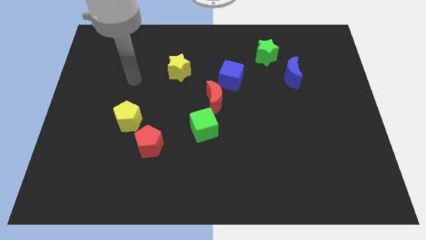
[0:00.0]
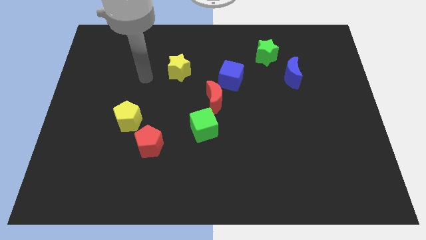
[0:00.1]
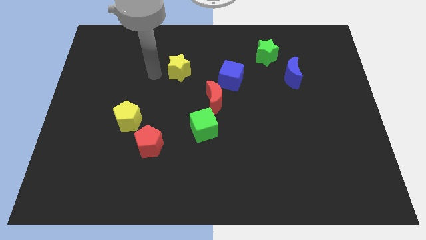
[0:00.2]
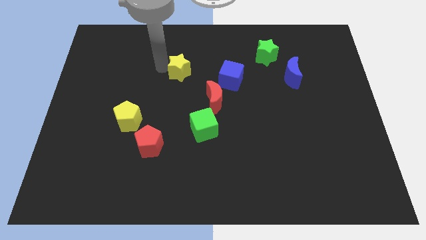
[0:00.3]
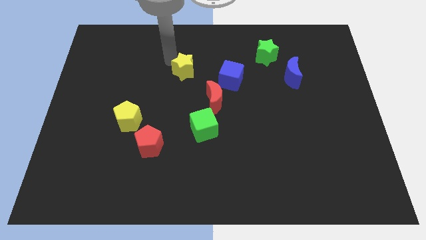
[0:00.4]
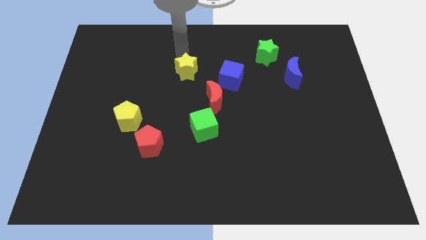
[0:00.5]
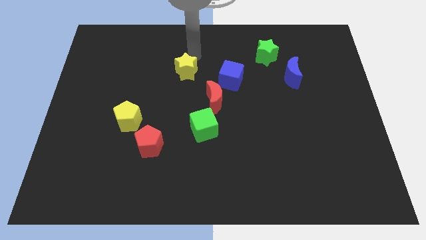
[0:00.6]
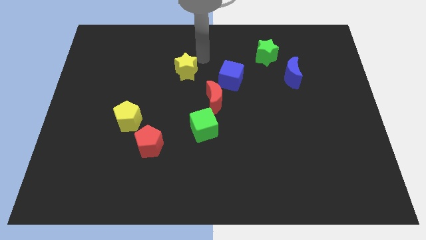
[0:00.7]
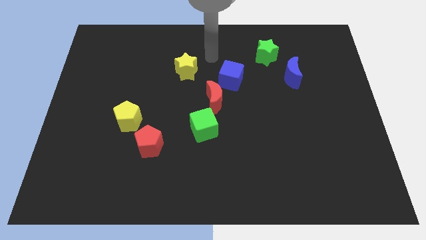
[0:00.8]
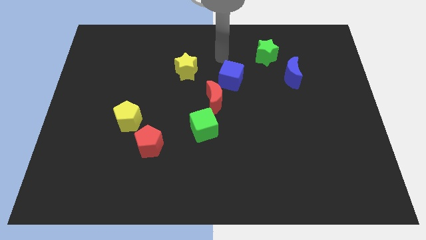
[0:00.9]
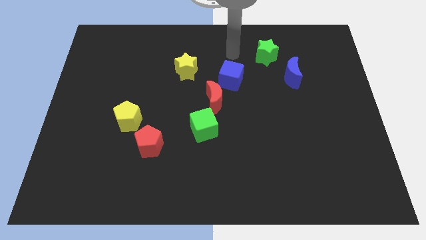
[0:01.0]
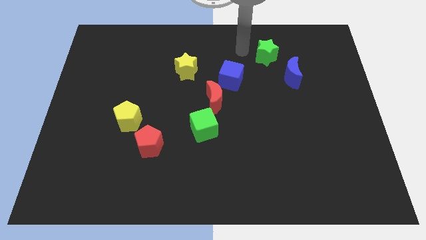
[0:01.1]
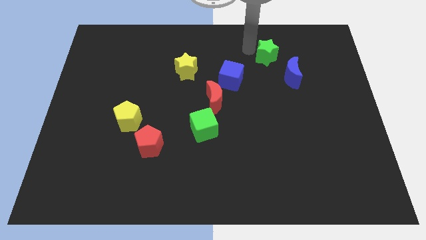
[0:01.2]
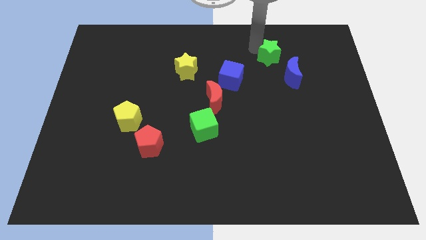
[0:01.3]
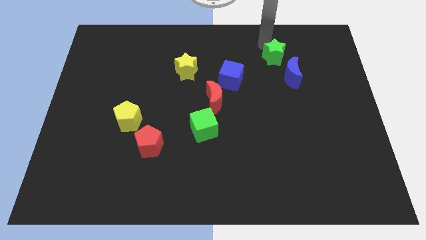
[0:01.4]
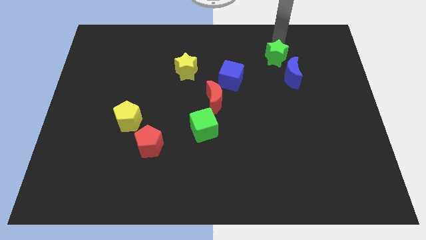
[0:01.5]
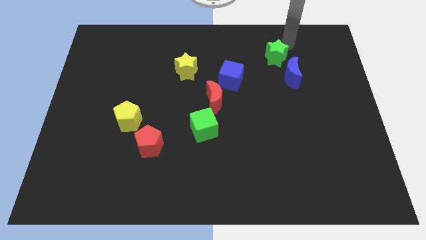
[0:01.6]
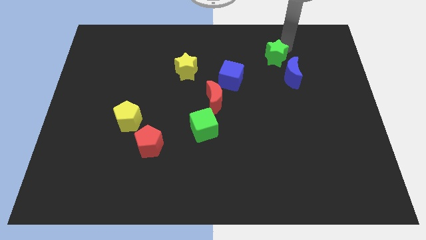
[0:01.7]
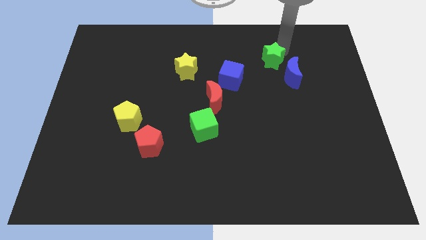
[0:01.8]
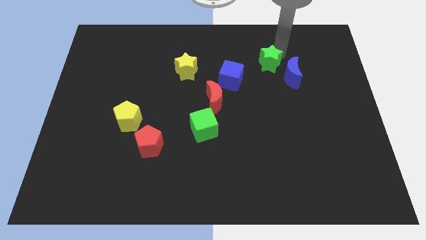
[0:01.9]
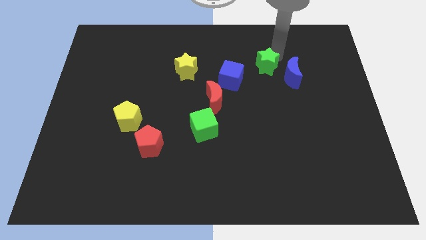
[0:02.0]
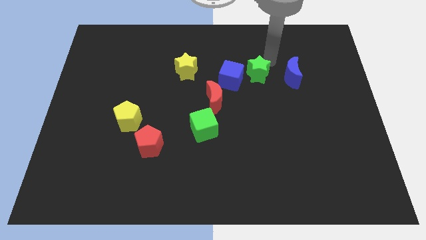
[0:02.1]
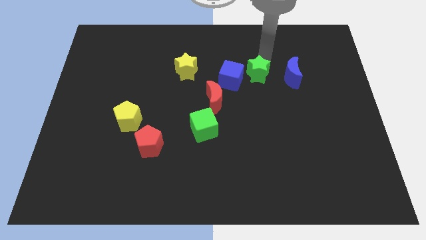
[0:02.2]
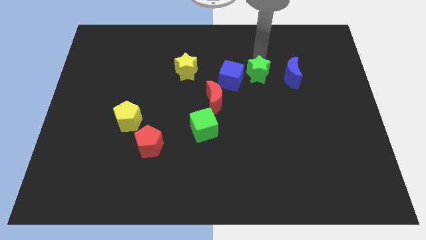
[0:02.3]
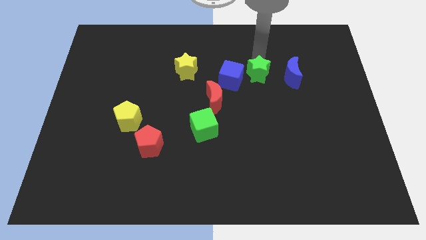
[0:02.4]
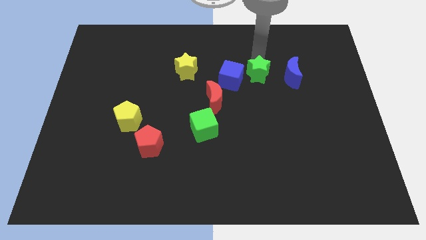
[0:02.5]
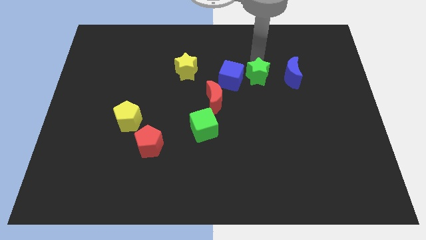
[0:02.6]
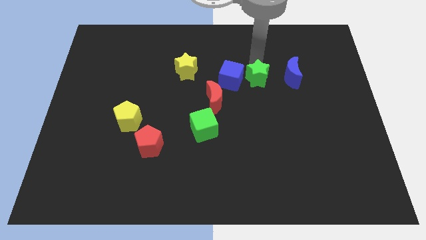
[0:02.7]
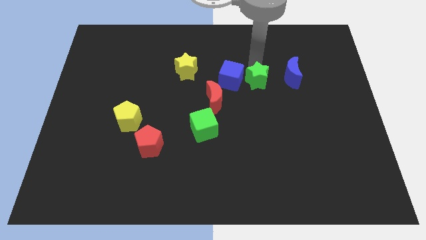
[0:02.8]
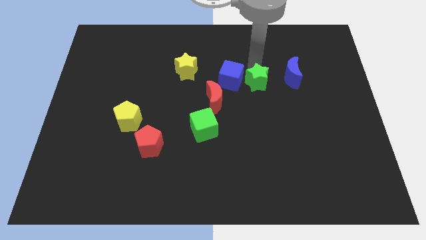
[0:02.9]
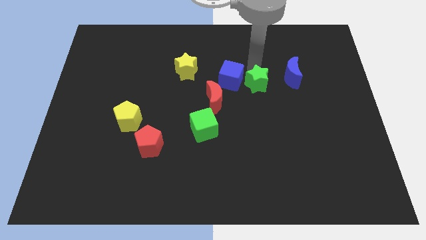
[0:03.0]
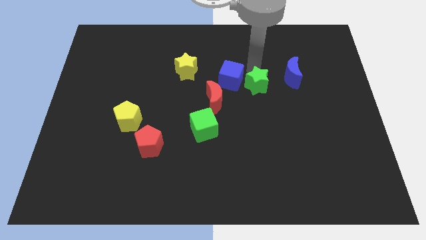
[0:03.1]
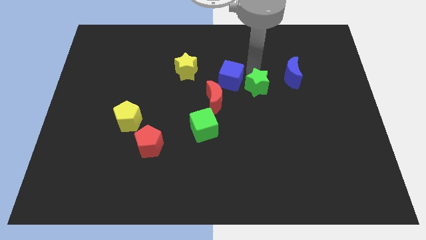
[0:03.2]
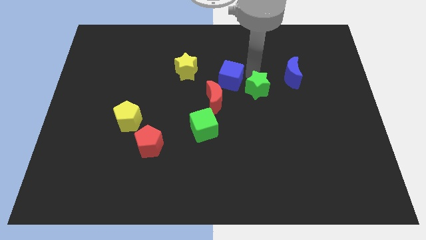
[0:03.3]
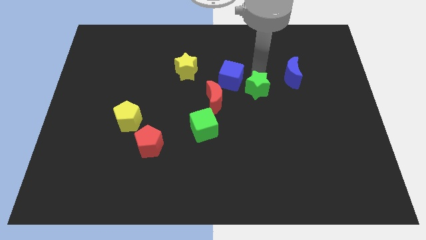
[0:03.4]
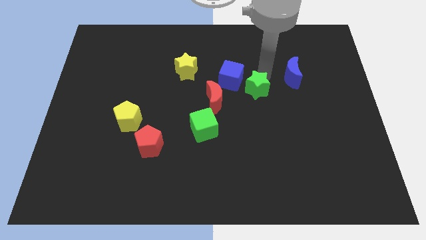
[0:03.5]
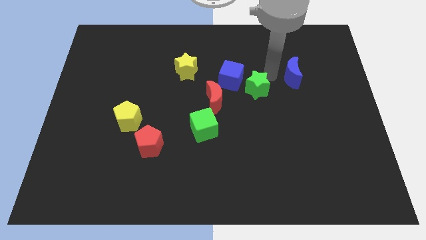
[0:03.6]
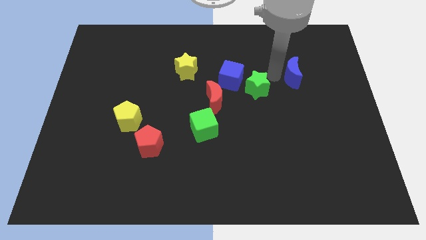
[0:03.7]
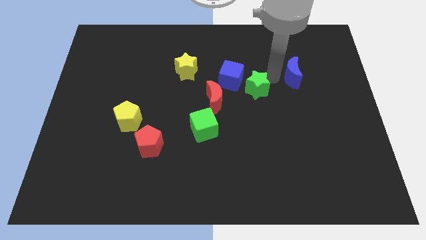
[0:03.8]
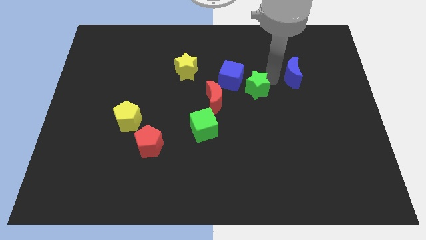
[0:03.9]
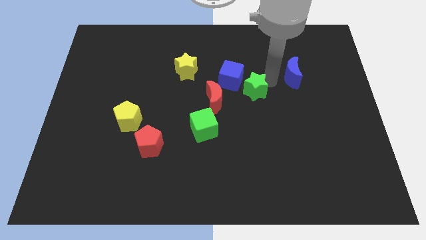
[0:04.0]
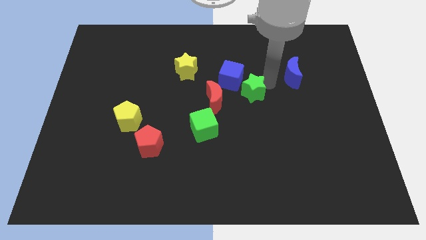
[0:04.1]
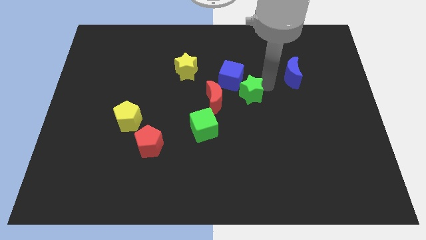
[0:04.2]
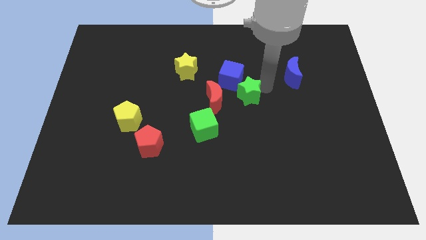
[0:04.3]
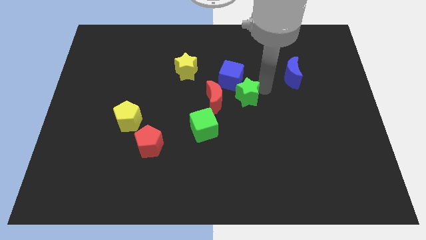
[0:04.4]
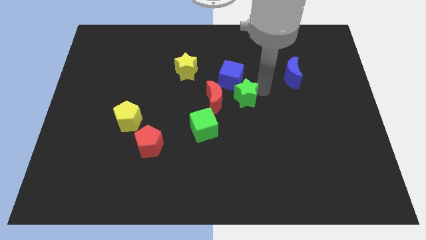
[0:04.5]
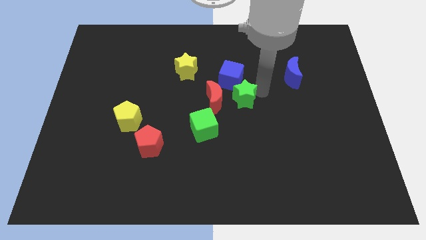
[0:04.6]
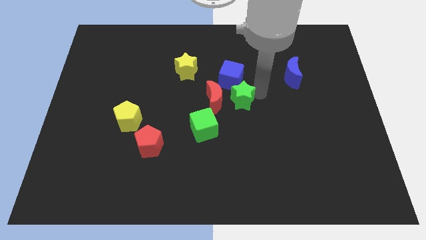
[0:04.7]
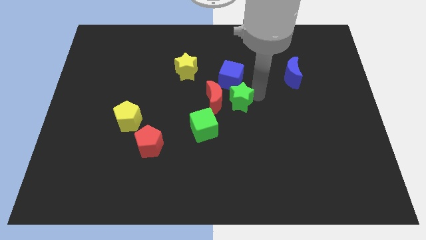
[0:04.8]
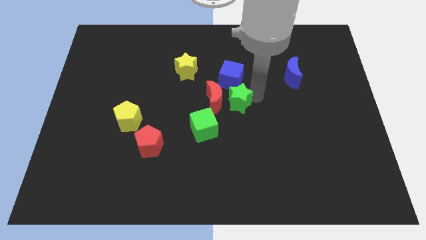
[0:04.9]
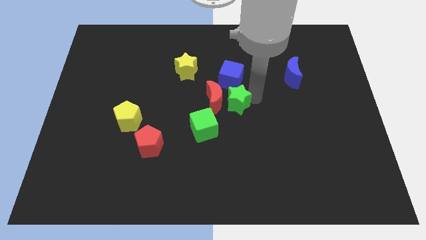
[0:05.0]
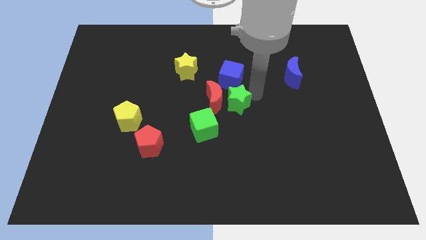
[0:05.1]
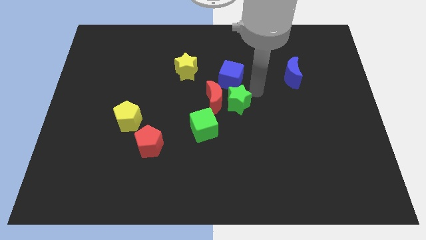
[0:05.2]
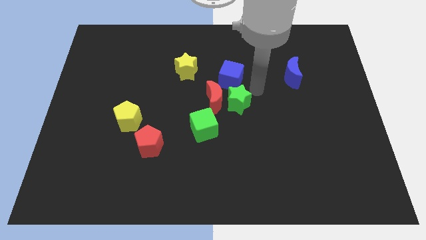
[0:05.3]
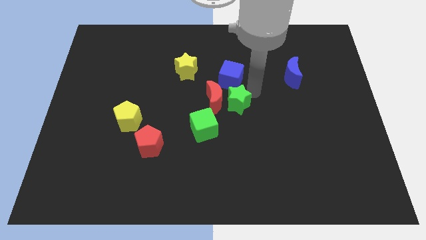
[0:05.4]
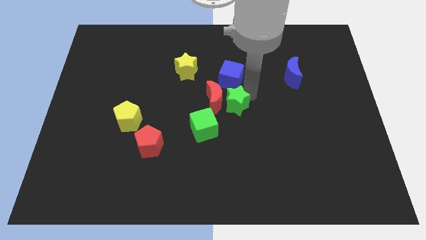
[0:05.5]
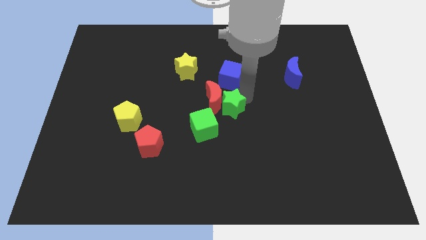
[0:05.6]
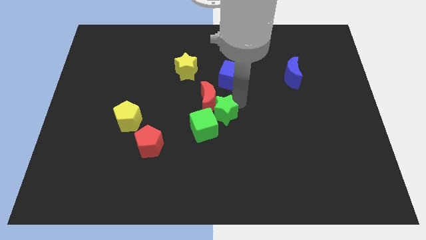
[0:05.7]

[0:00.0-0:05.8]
put the green star close to the green cube

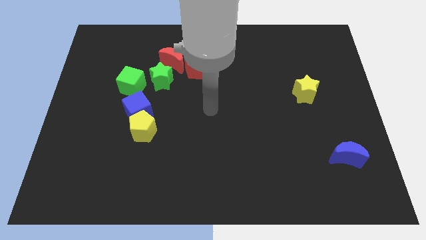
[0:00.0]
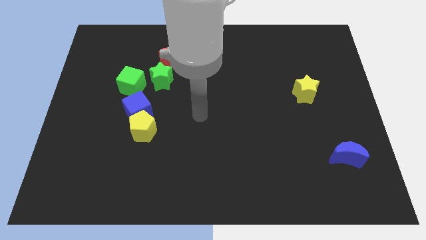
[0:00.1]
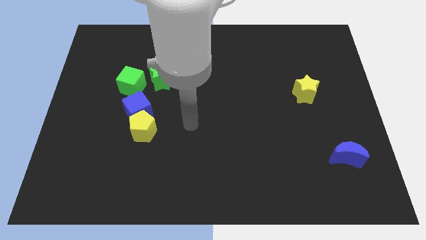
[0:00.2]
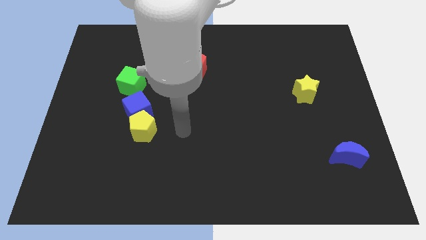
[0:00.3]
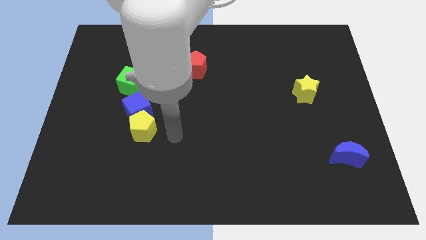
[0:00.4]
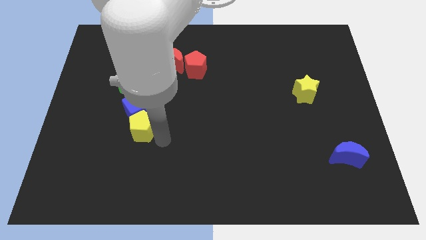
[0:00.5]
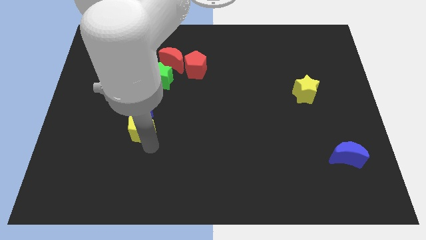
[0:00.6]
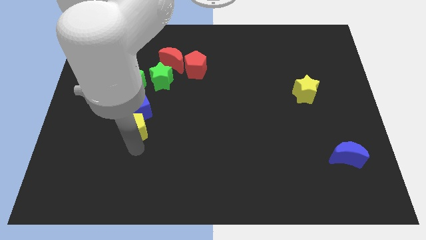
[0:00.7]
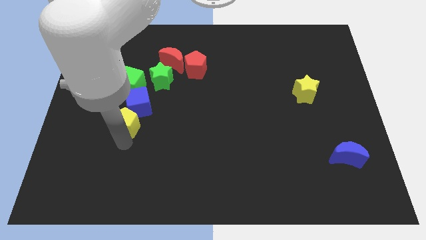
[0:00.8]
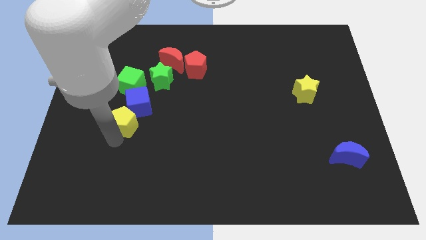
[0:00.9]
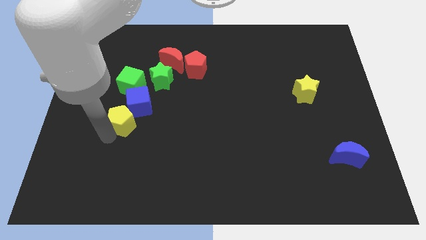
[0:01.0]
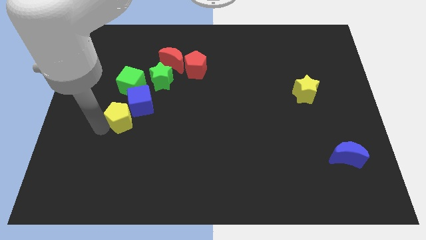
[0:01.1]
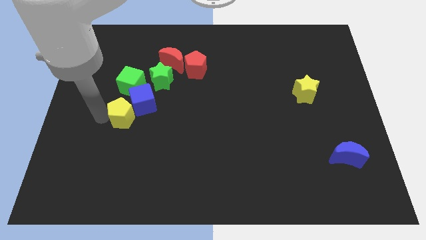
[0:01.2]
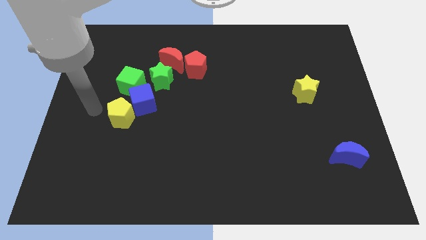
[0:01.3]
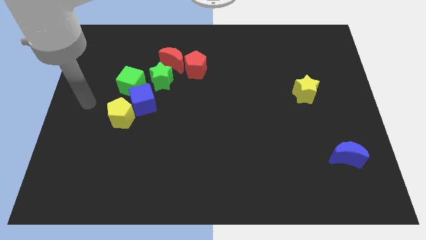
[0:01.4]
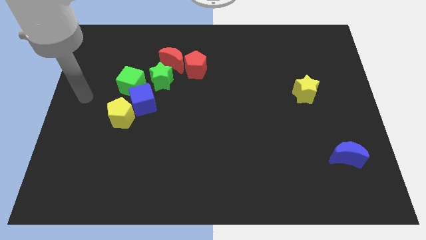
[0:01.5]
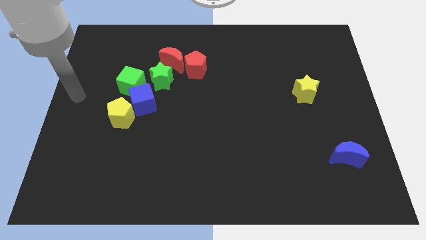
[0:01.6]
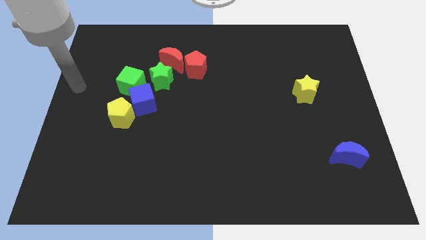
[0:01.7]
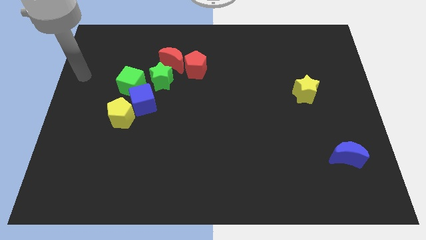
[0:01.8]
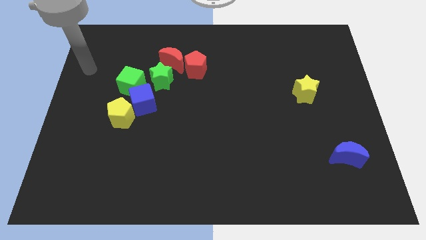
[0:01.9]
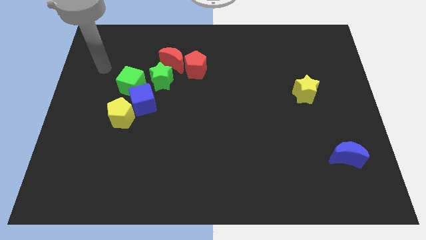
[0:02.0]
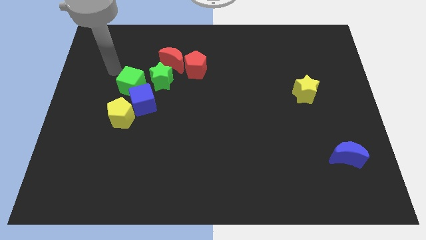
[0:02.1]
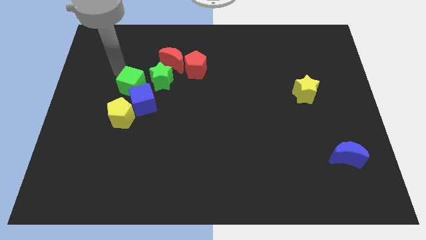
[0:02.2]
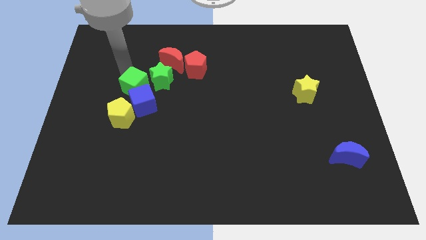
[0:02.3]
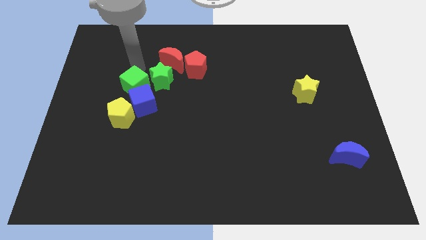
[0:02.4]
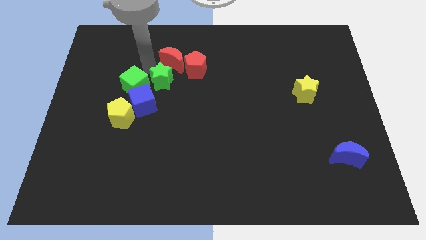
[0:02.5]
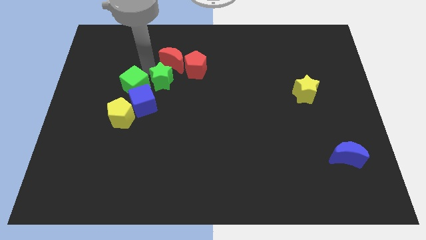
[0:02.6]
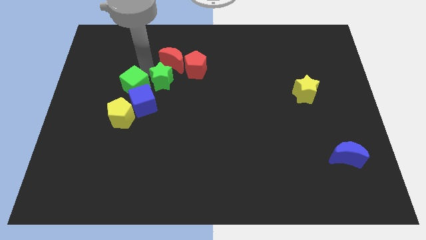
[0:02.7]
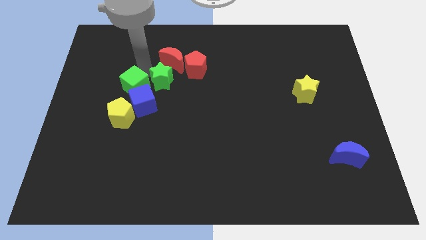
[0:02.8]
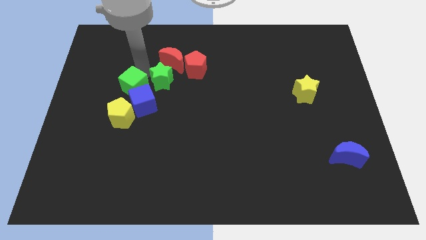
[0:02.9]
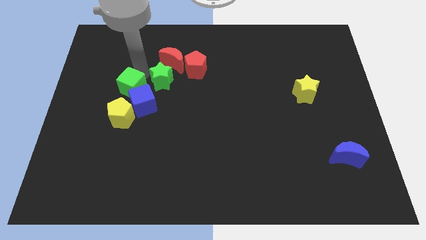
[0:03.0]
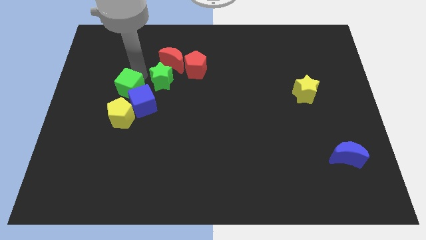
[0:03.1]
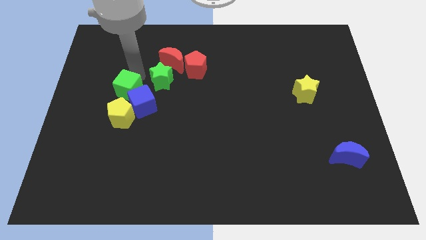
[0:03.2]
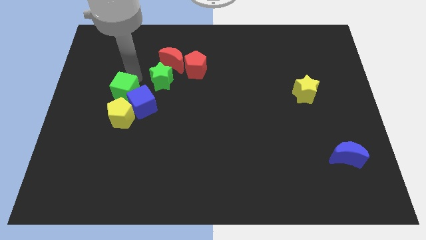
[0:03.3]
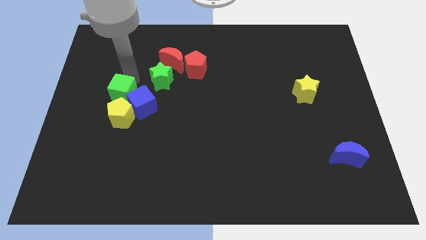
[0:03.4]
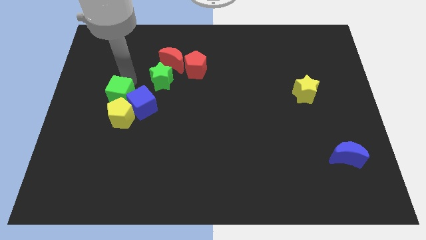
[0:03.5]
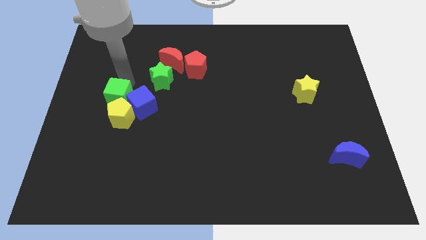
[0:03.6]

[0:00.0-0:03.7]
slide the green cube towards the yellow pentagon
